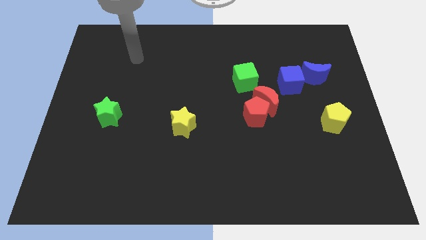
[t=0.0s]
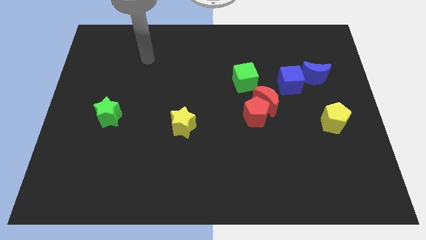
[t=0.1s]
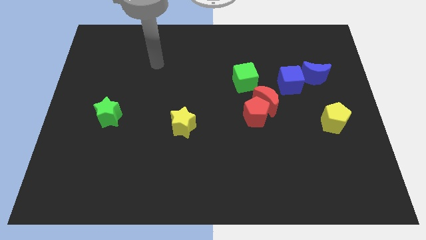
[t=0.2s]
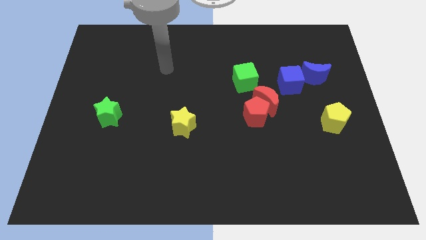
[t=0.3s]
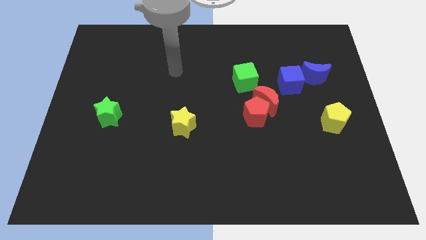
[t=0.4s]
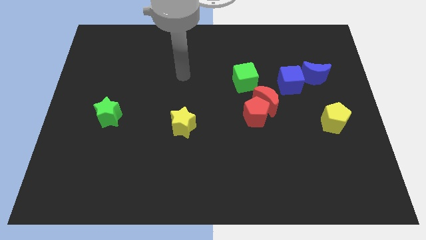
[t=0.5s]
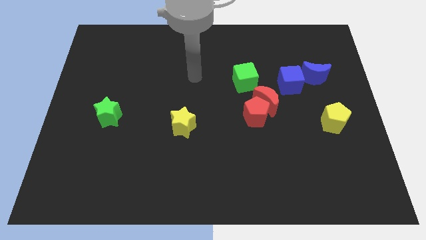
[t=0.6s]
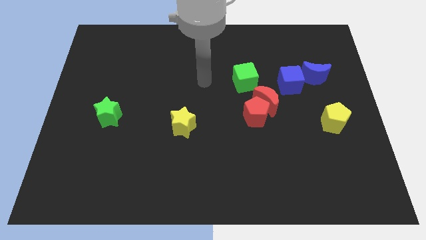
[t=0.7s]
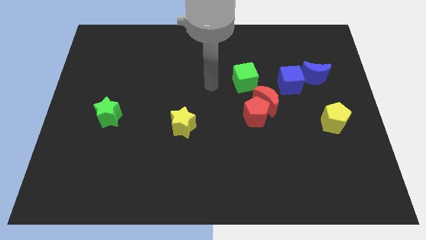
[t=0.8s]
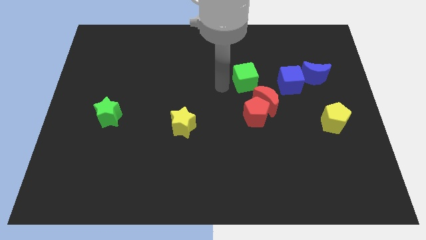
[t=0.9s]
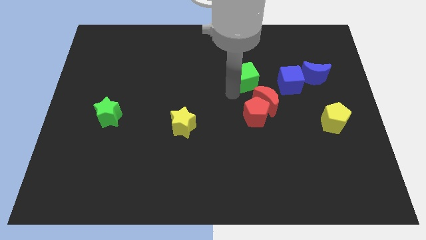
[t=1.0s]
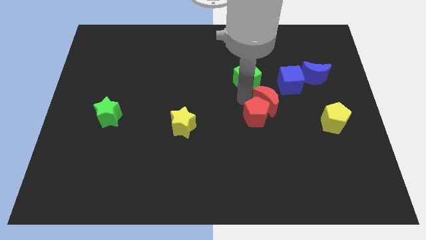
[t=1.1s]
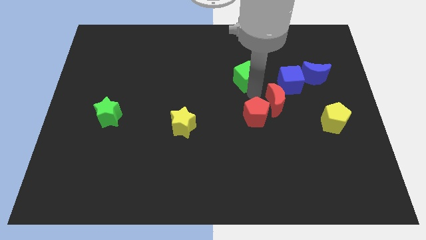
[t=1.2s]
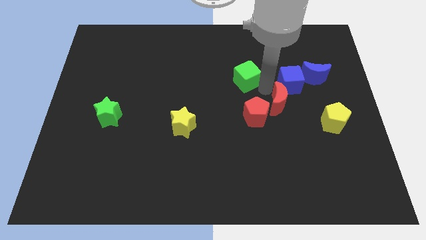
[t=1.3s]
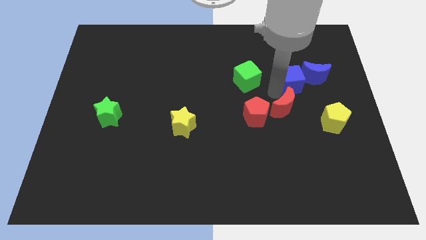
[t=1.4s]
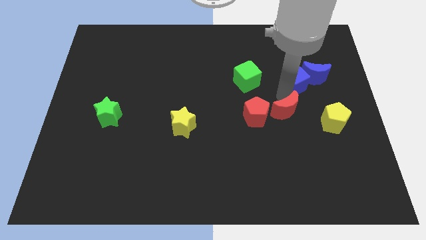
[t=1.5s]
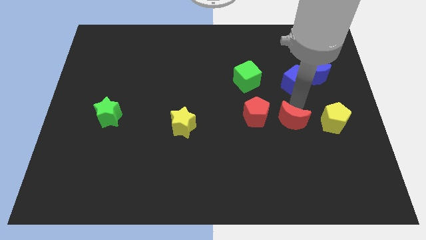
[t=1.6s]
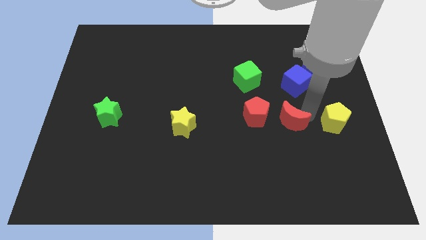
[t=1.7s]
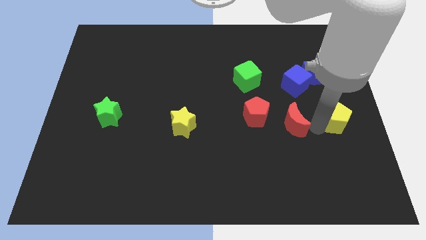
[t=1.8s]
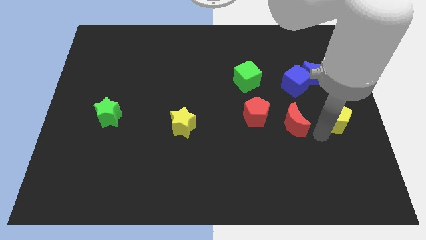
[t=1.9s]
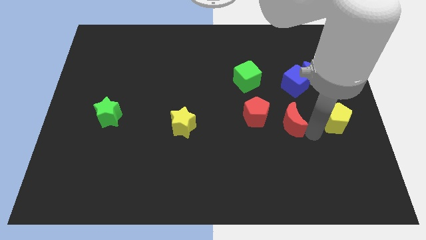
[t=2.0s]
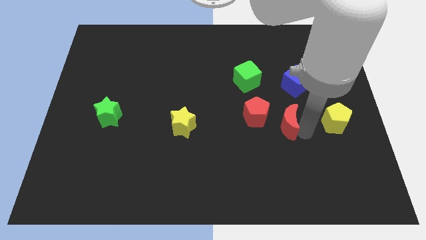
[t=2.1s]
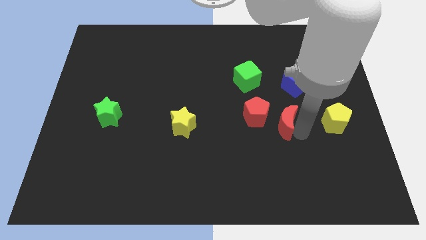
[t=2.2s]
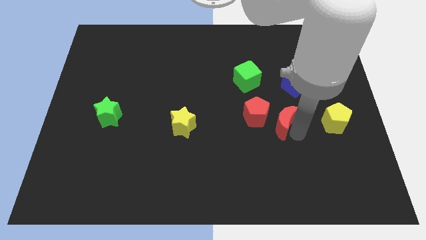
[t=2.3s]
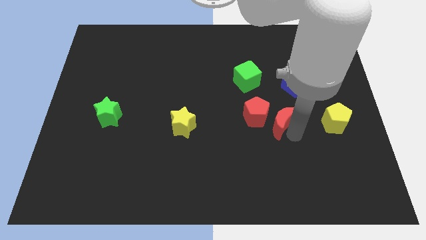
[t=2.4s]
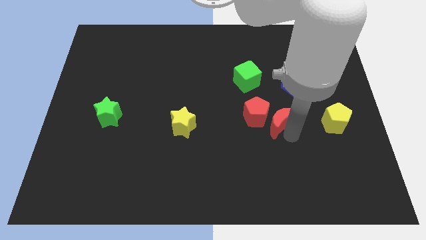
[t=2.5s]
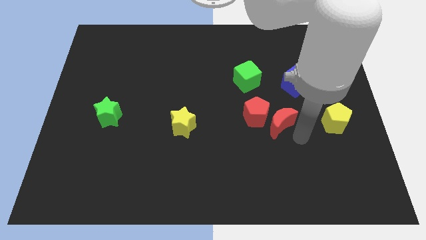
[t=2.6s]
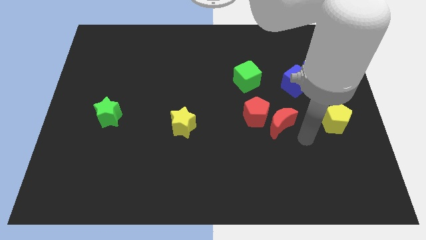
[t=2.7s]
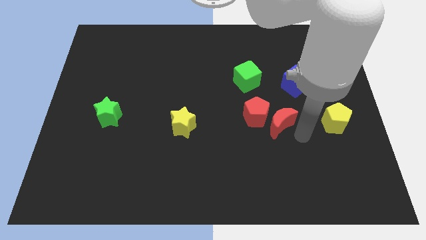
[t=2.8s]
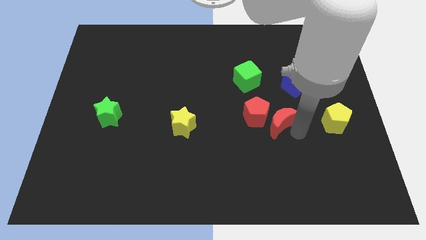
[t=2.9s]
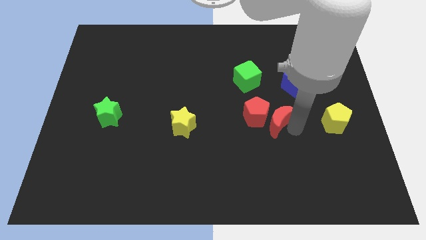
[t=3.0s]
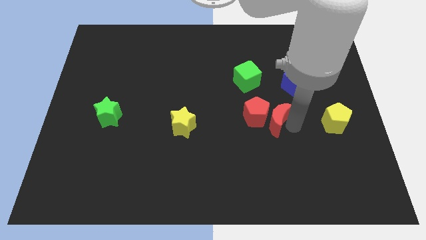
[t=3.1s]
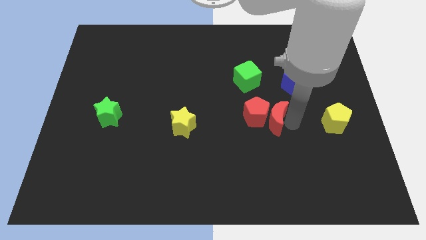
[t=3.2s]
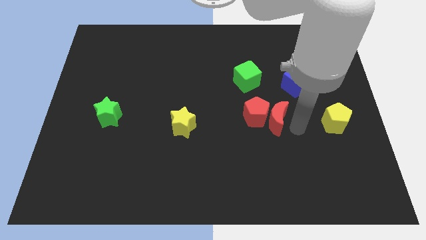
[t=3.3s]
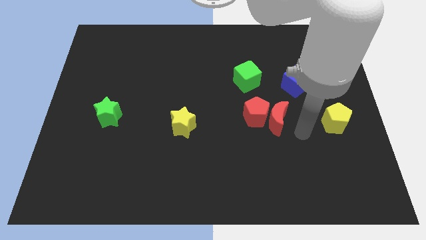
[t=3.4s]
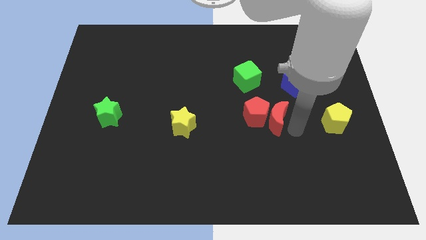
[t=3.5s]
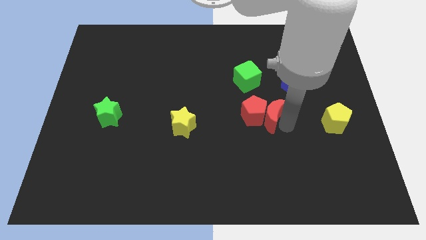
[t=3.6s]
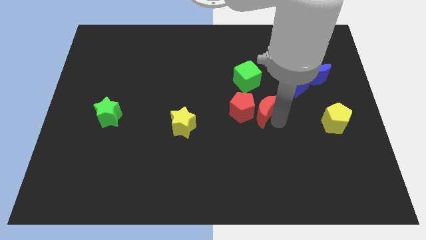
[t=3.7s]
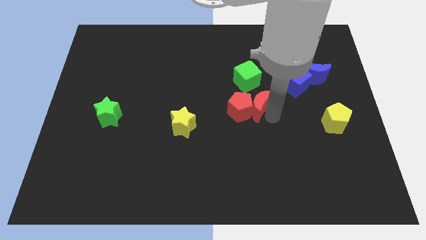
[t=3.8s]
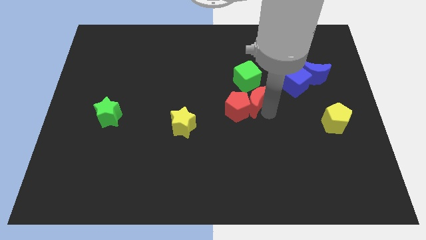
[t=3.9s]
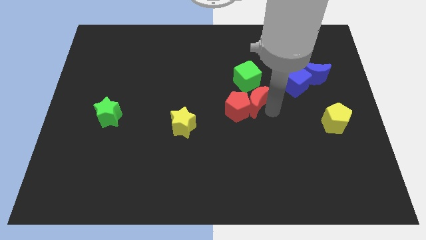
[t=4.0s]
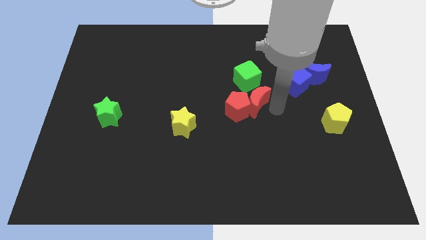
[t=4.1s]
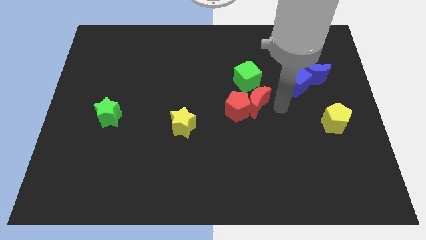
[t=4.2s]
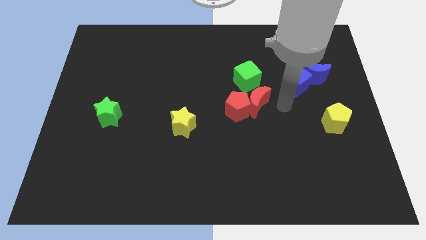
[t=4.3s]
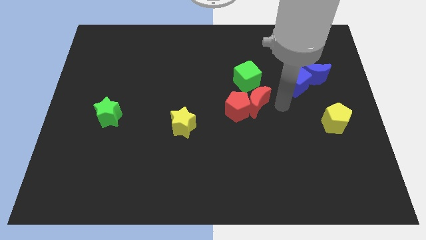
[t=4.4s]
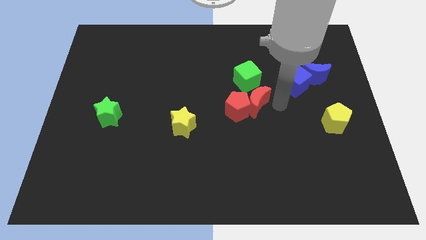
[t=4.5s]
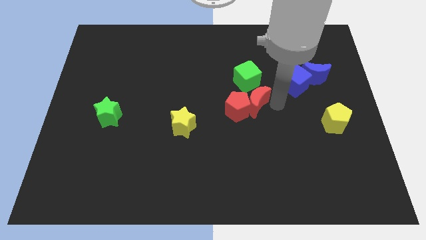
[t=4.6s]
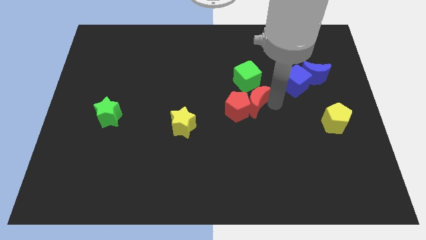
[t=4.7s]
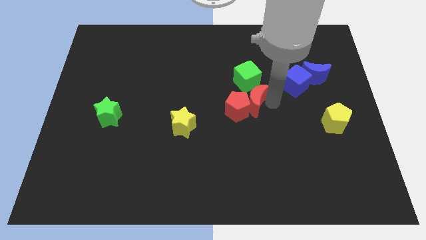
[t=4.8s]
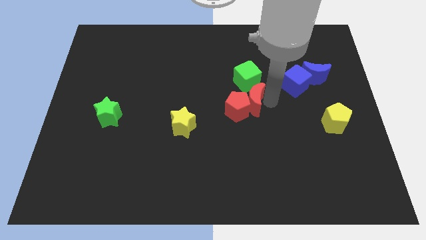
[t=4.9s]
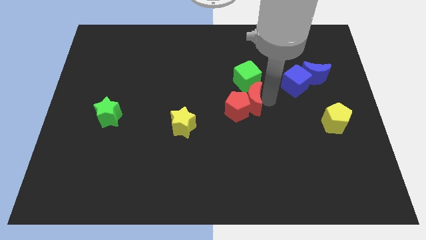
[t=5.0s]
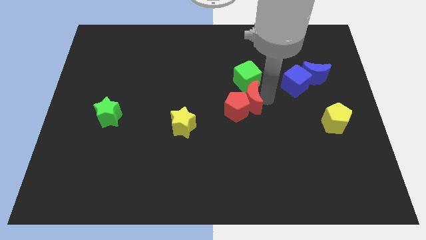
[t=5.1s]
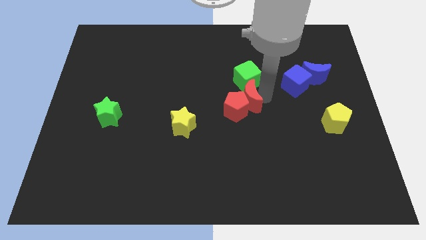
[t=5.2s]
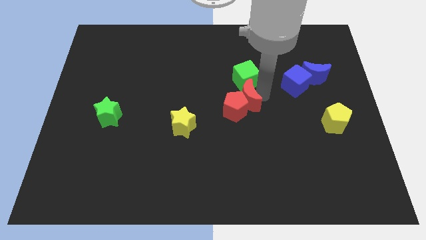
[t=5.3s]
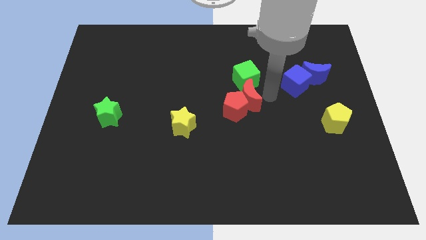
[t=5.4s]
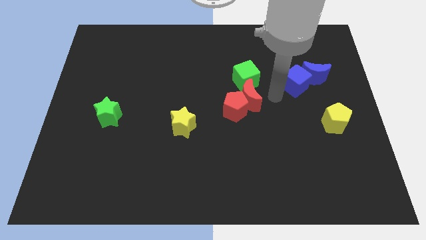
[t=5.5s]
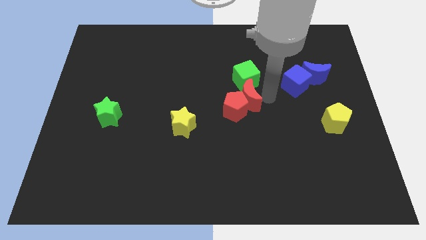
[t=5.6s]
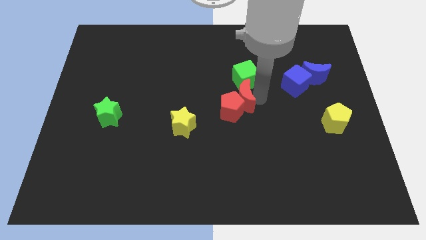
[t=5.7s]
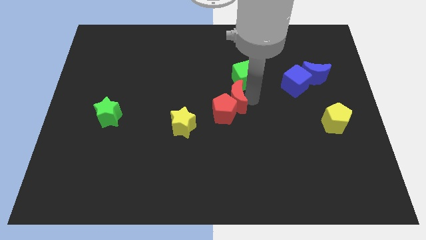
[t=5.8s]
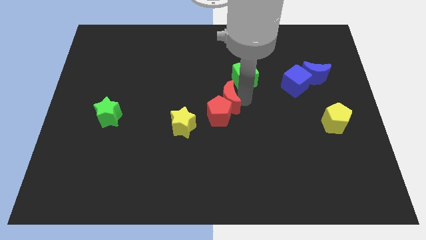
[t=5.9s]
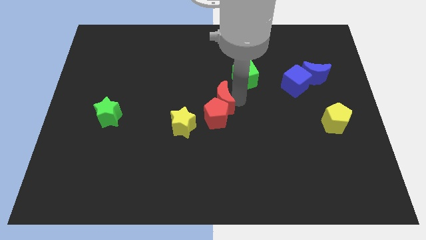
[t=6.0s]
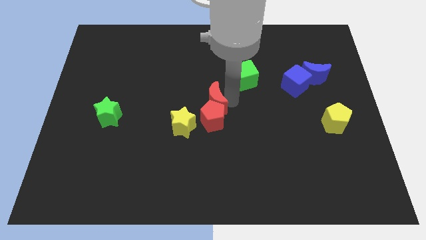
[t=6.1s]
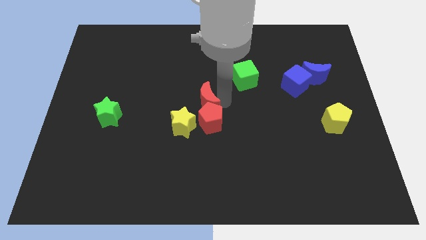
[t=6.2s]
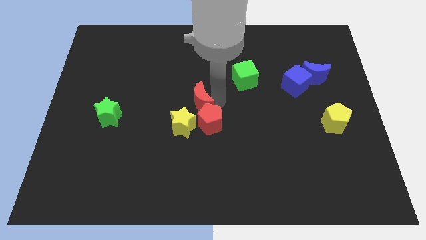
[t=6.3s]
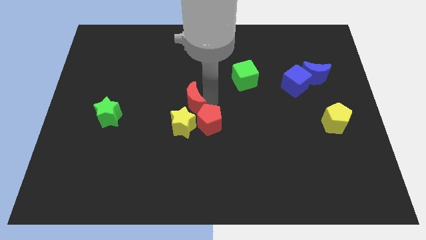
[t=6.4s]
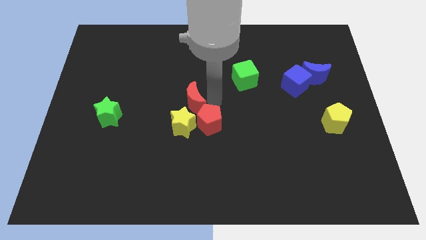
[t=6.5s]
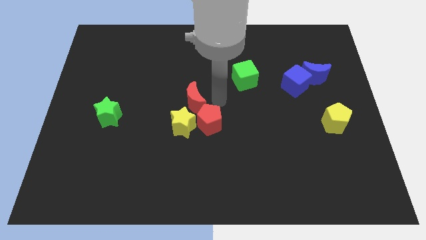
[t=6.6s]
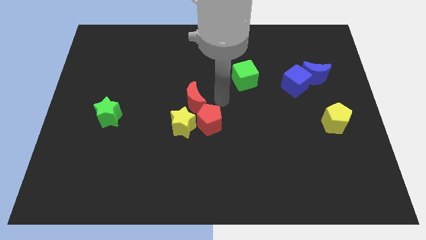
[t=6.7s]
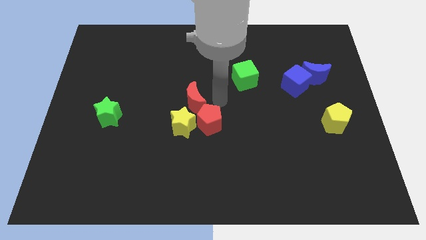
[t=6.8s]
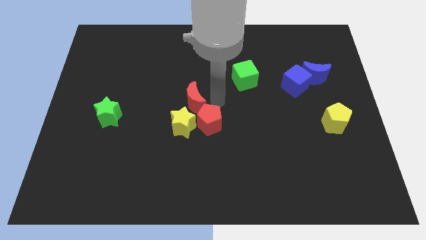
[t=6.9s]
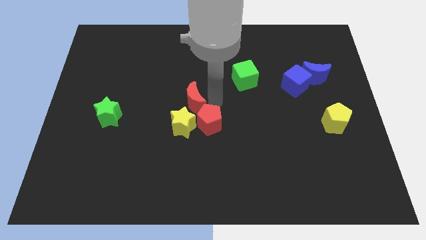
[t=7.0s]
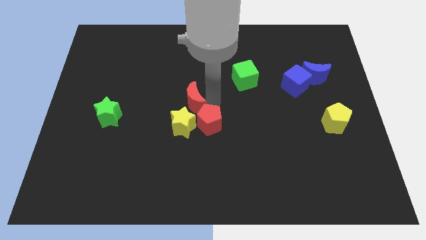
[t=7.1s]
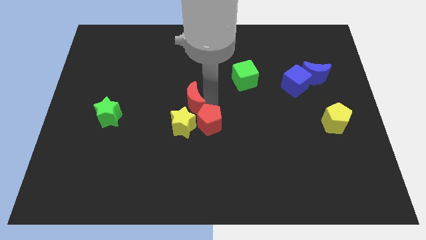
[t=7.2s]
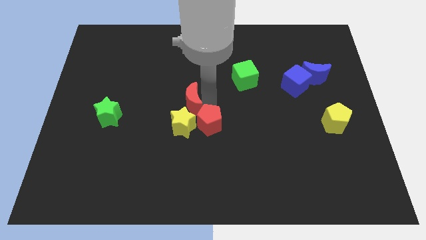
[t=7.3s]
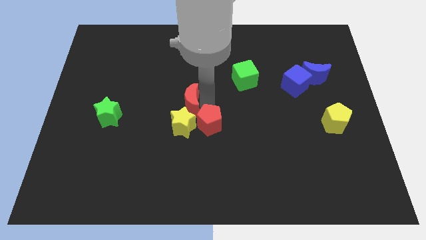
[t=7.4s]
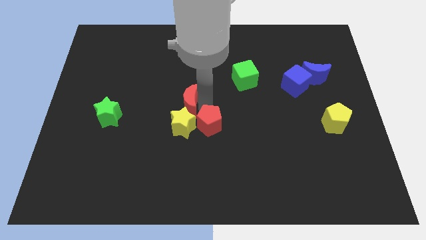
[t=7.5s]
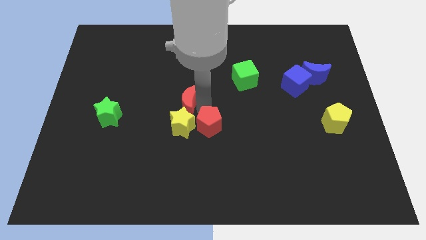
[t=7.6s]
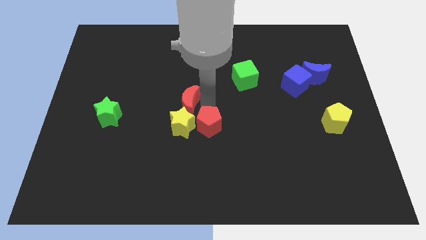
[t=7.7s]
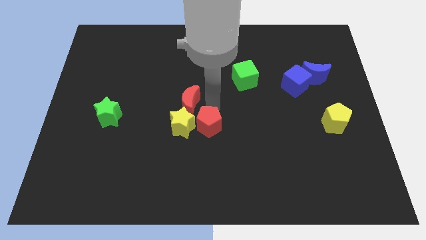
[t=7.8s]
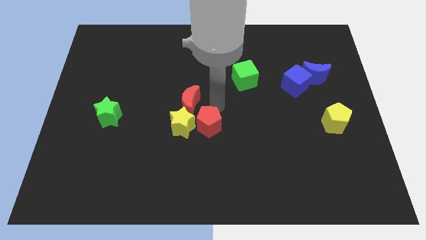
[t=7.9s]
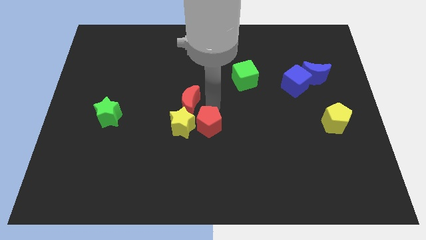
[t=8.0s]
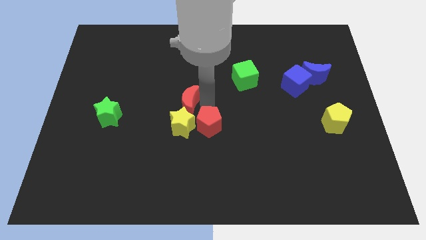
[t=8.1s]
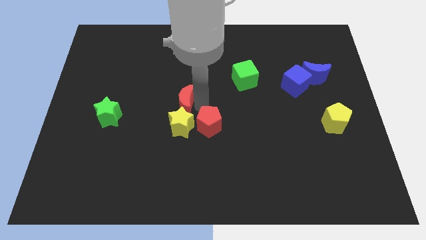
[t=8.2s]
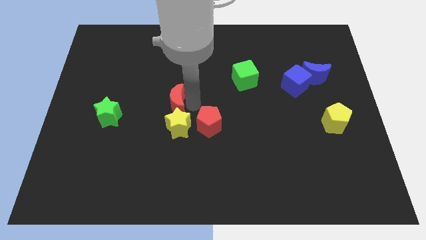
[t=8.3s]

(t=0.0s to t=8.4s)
push the red moon to the left
